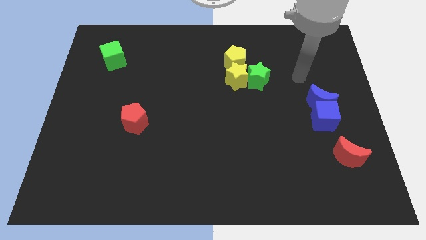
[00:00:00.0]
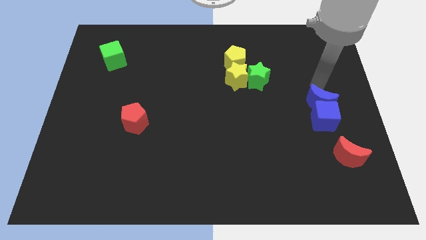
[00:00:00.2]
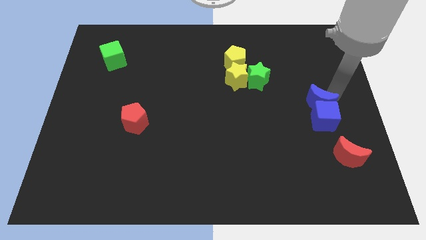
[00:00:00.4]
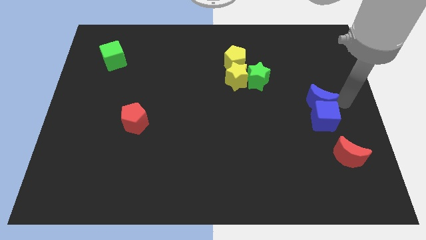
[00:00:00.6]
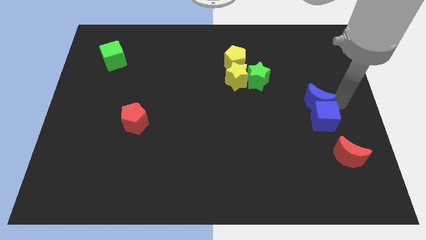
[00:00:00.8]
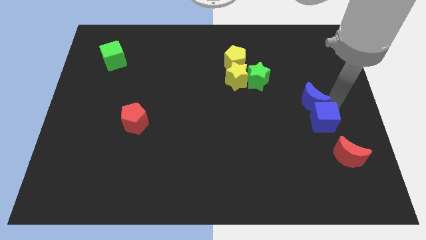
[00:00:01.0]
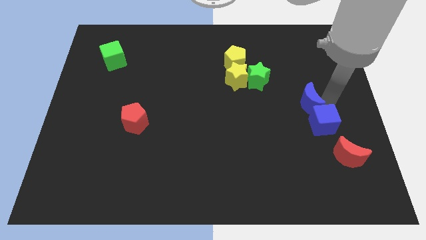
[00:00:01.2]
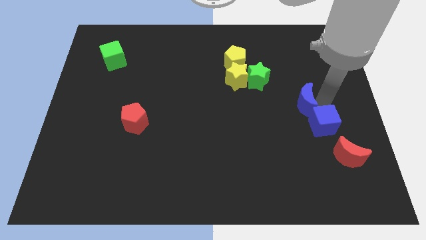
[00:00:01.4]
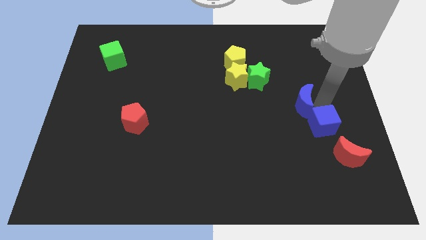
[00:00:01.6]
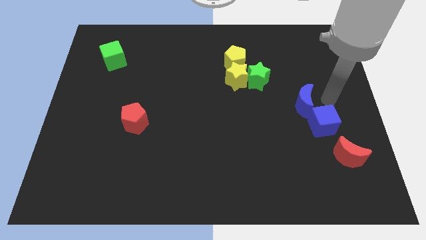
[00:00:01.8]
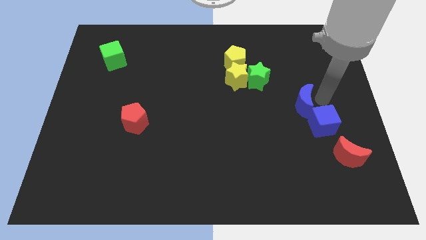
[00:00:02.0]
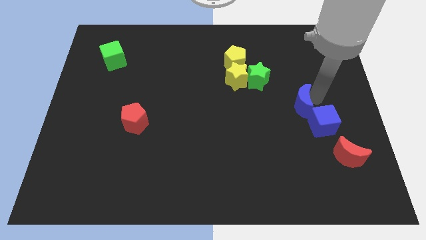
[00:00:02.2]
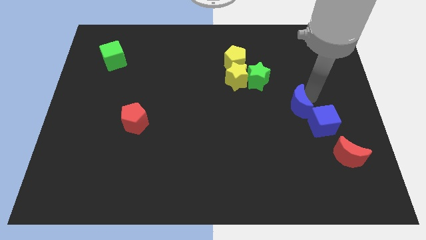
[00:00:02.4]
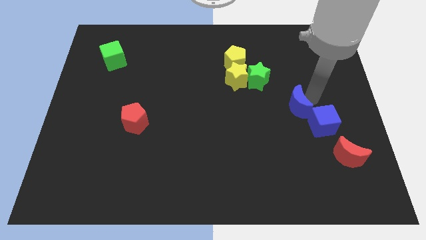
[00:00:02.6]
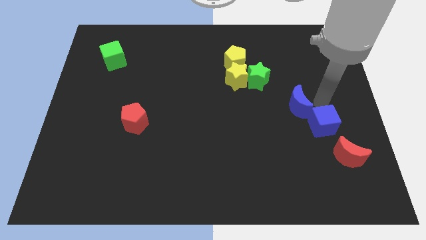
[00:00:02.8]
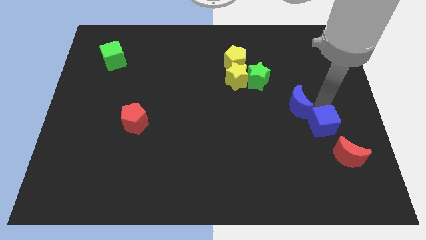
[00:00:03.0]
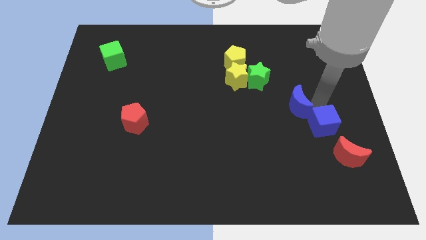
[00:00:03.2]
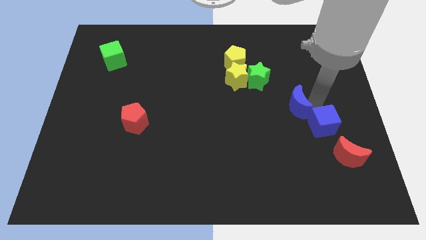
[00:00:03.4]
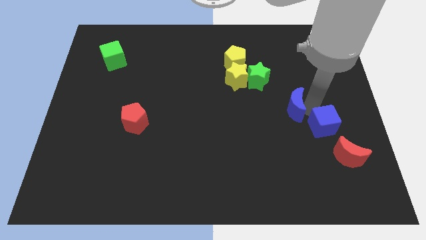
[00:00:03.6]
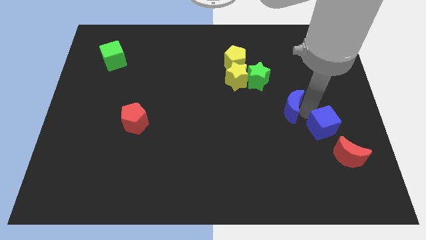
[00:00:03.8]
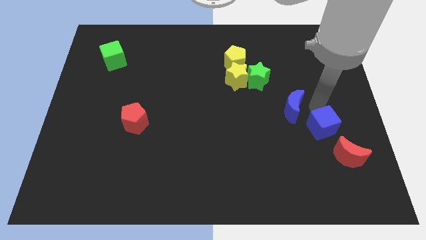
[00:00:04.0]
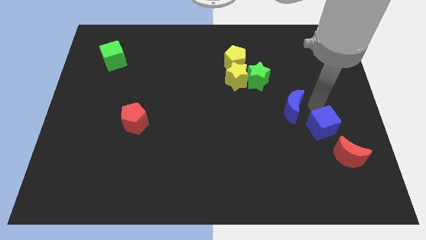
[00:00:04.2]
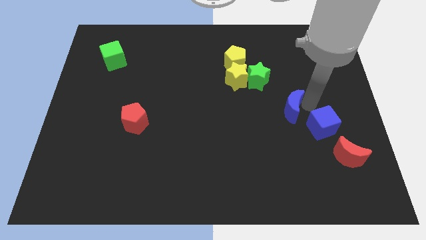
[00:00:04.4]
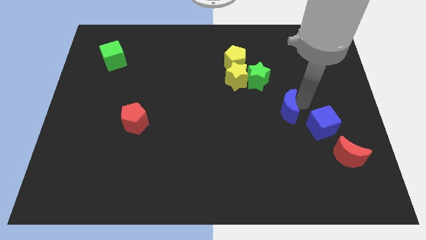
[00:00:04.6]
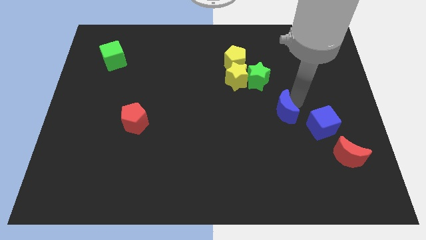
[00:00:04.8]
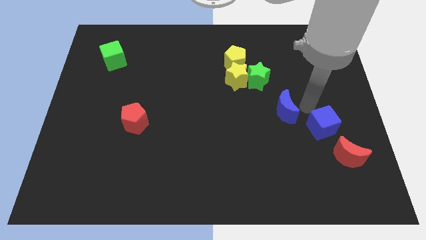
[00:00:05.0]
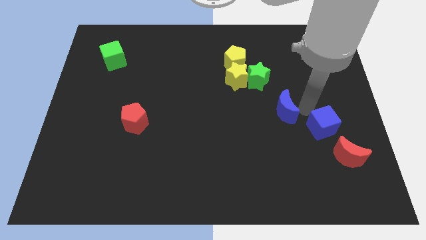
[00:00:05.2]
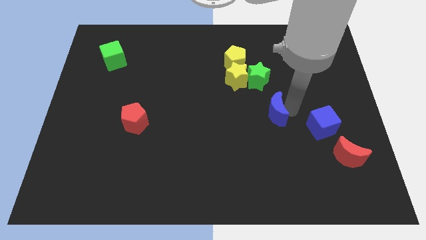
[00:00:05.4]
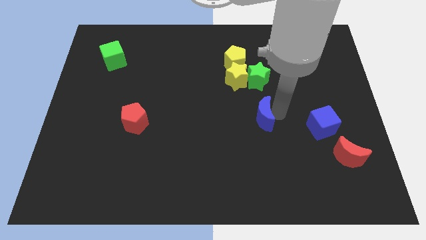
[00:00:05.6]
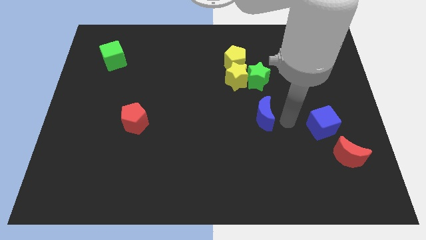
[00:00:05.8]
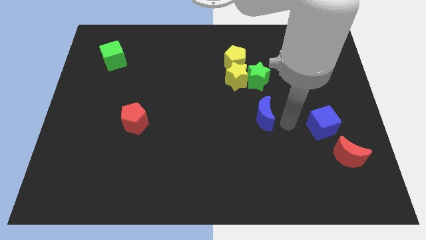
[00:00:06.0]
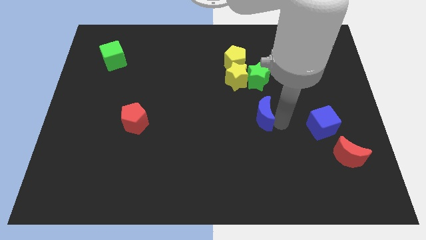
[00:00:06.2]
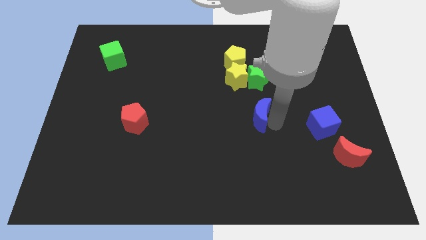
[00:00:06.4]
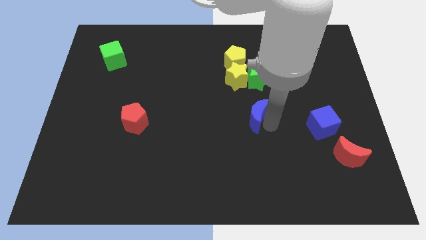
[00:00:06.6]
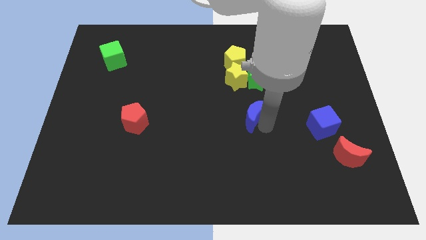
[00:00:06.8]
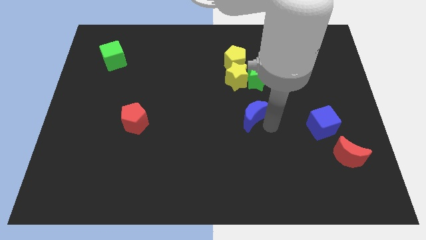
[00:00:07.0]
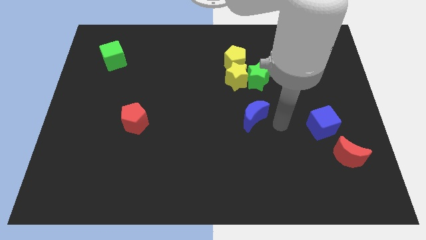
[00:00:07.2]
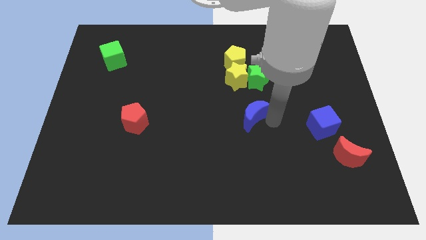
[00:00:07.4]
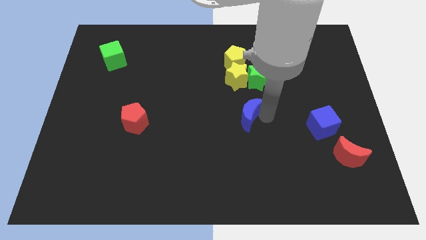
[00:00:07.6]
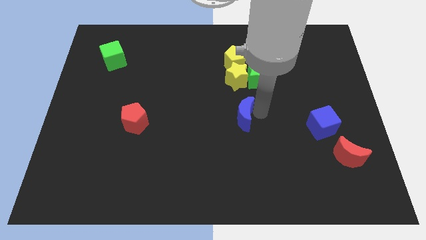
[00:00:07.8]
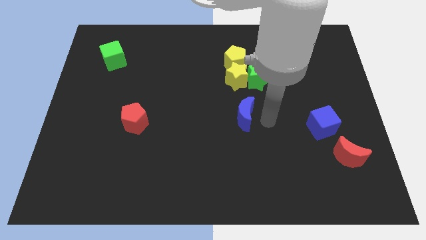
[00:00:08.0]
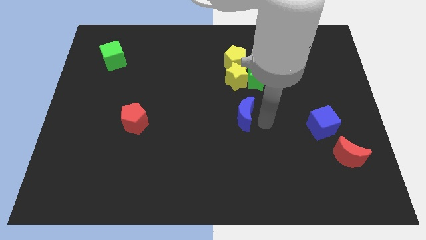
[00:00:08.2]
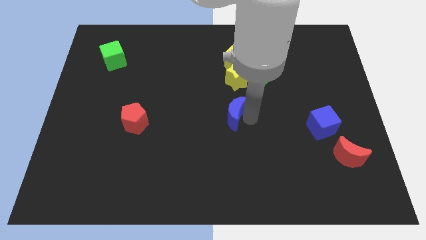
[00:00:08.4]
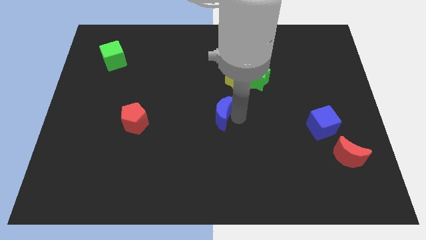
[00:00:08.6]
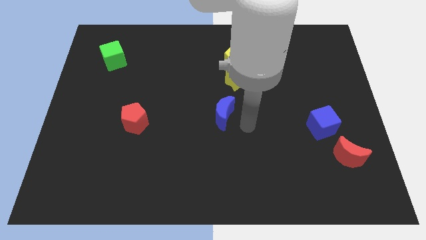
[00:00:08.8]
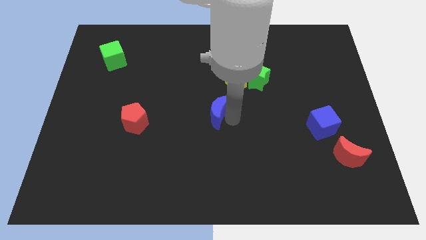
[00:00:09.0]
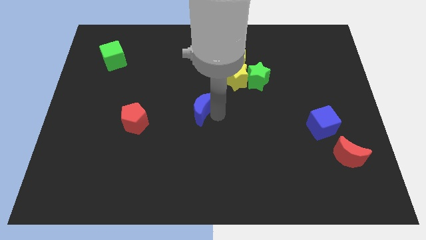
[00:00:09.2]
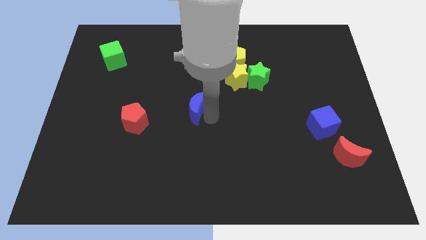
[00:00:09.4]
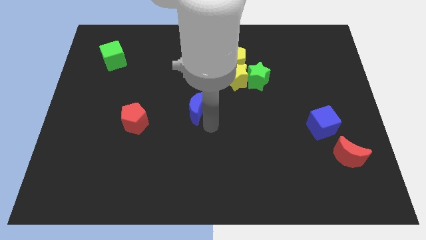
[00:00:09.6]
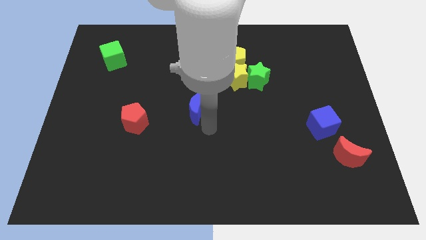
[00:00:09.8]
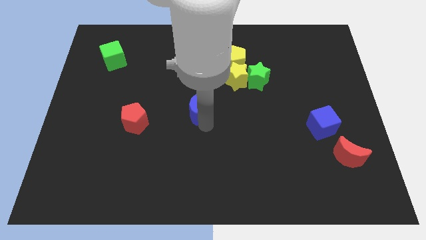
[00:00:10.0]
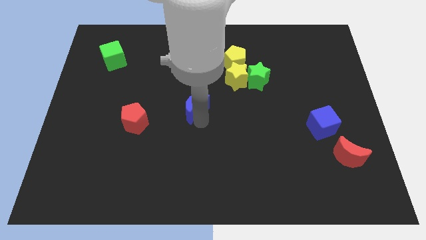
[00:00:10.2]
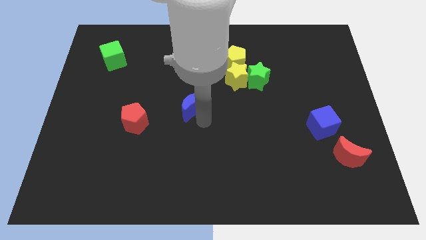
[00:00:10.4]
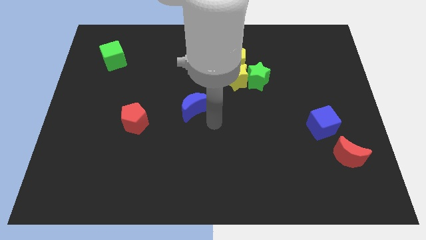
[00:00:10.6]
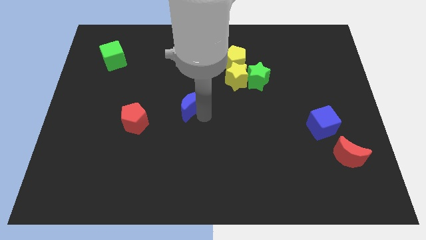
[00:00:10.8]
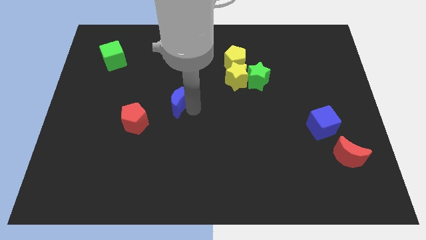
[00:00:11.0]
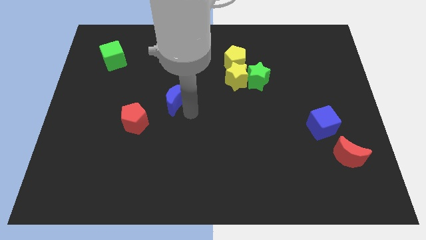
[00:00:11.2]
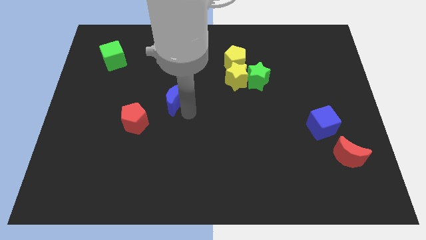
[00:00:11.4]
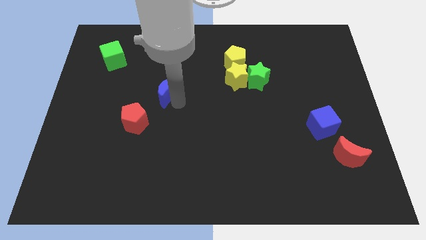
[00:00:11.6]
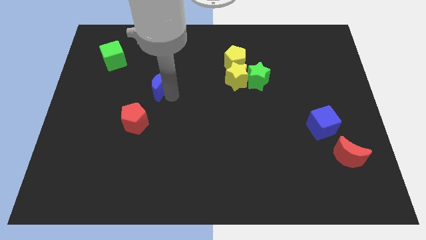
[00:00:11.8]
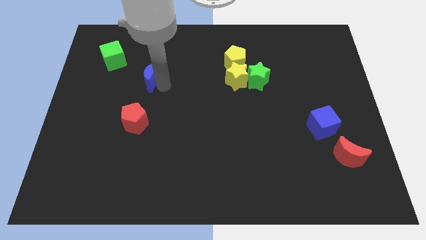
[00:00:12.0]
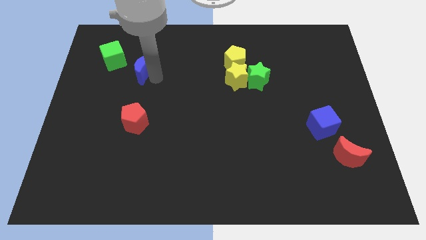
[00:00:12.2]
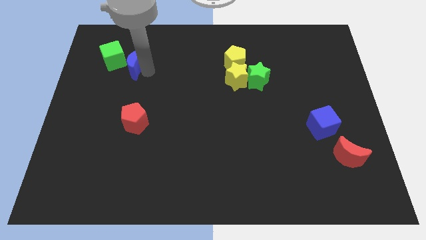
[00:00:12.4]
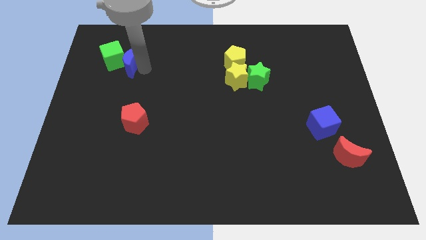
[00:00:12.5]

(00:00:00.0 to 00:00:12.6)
push the blue moon next to the green cube

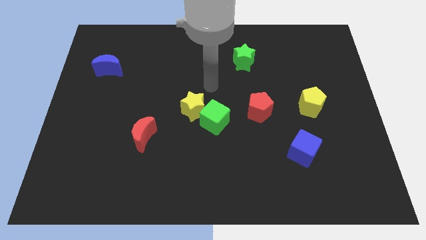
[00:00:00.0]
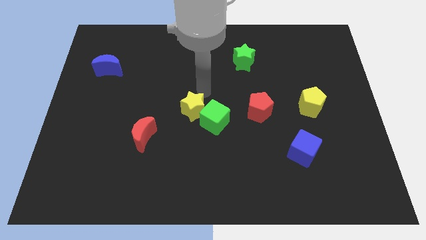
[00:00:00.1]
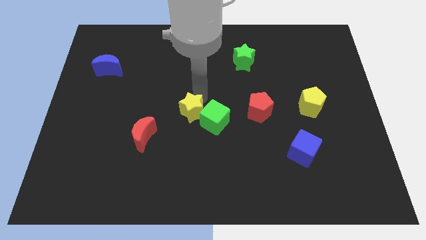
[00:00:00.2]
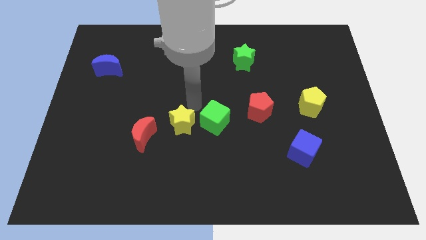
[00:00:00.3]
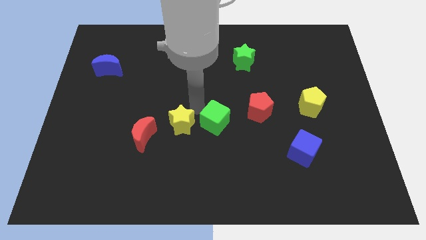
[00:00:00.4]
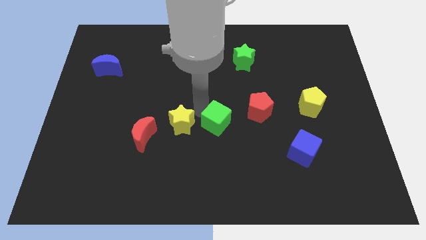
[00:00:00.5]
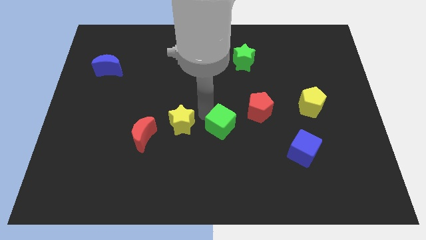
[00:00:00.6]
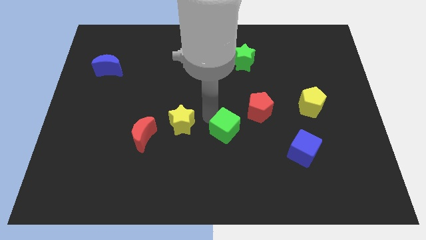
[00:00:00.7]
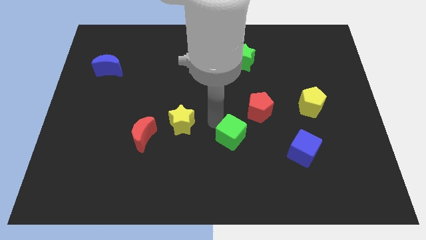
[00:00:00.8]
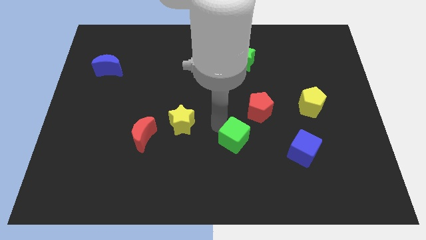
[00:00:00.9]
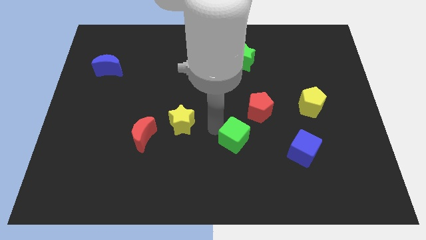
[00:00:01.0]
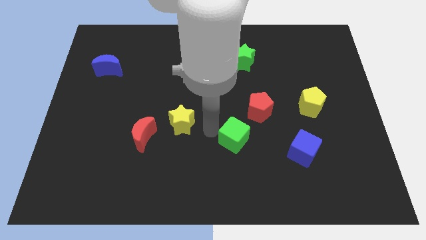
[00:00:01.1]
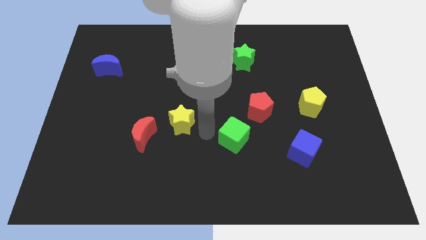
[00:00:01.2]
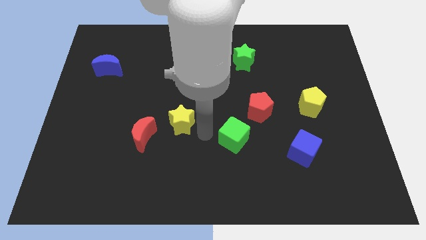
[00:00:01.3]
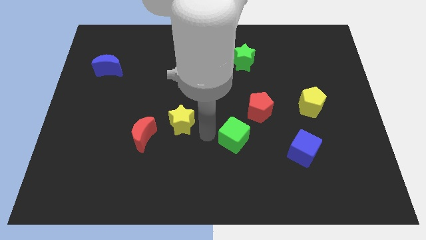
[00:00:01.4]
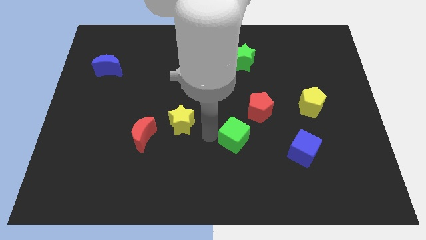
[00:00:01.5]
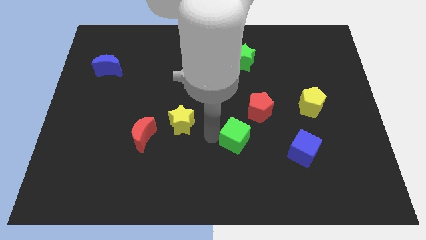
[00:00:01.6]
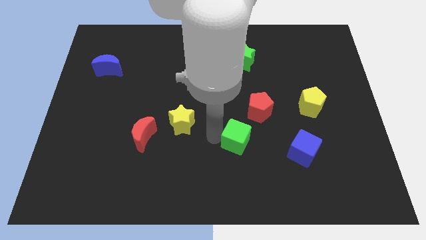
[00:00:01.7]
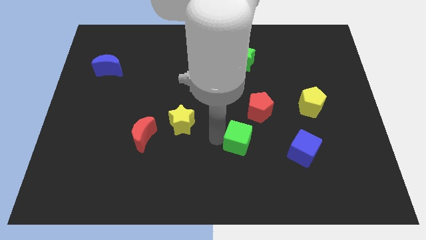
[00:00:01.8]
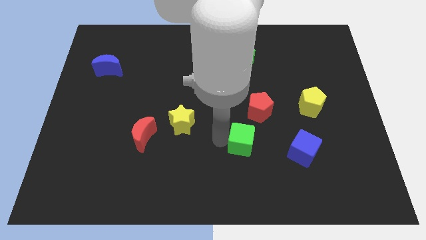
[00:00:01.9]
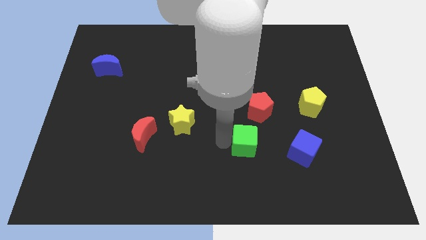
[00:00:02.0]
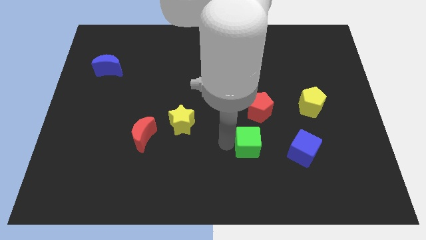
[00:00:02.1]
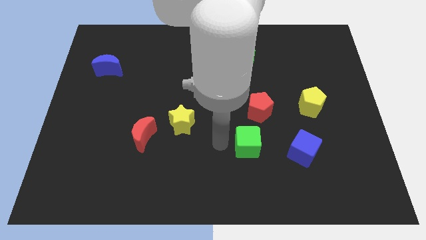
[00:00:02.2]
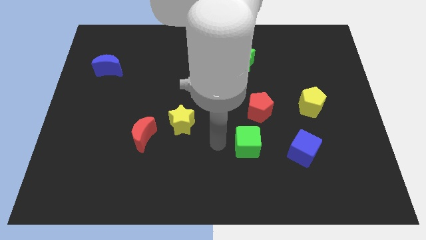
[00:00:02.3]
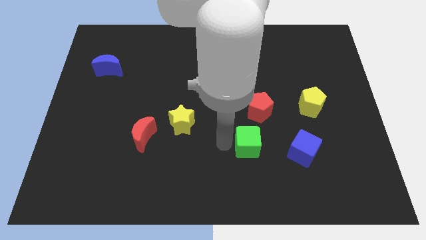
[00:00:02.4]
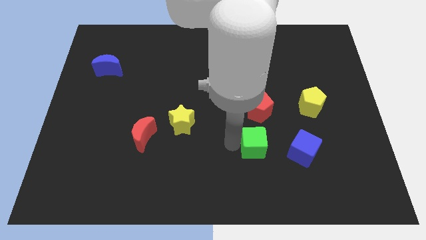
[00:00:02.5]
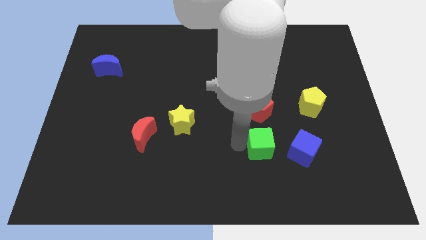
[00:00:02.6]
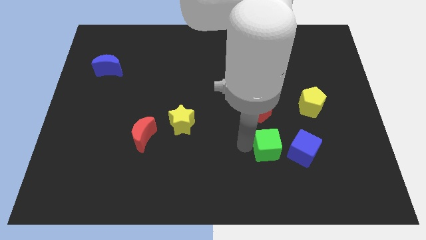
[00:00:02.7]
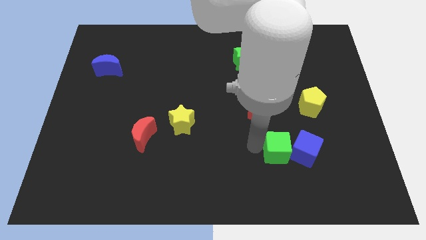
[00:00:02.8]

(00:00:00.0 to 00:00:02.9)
slide the green cube to the blue cube
